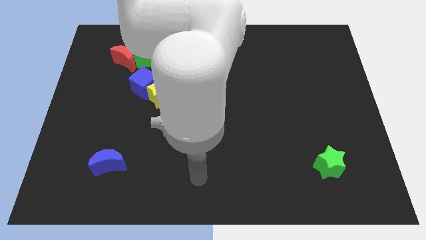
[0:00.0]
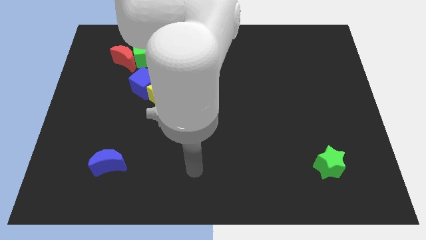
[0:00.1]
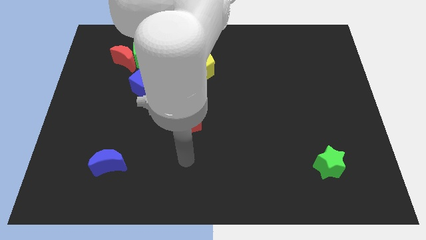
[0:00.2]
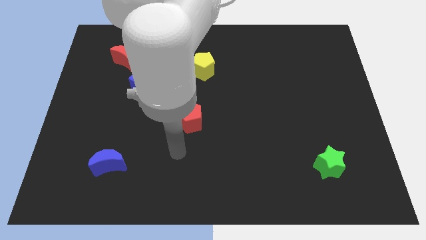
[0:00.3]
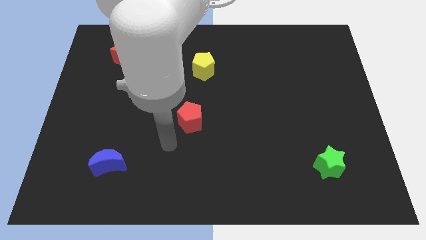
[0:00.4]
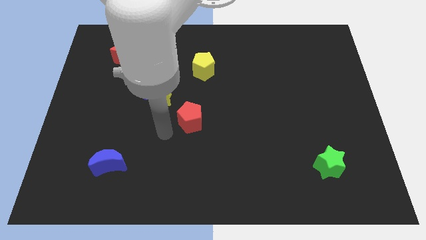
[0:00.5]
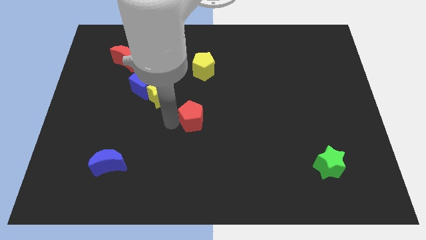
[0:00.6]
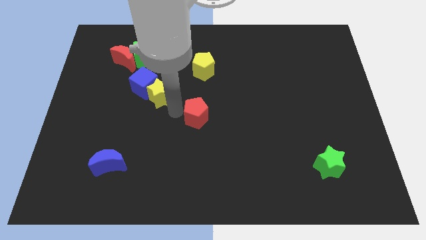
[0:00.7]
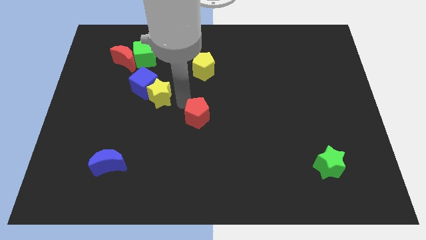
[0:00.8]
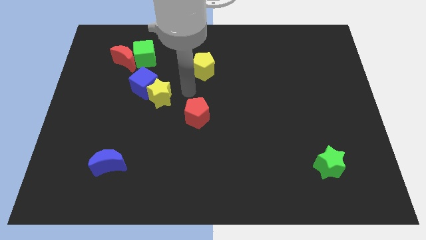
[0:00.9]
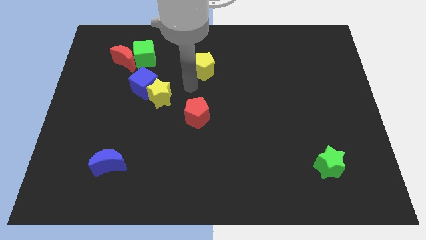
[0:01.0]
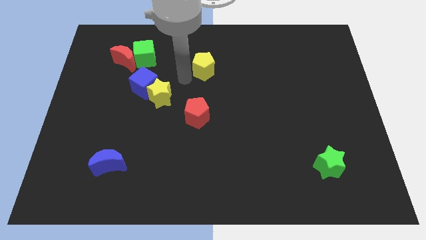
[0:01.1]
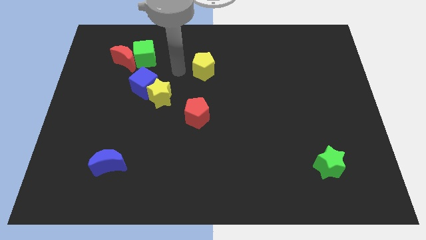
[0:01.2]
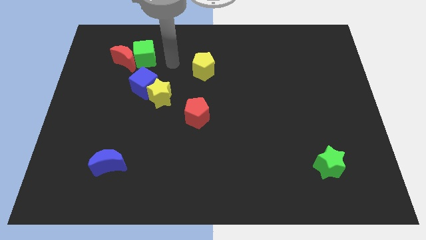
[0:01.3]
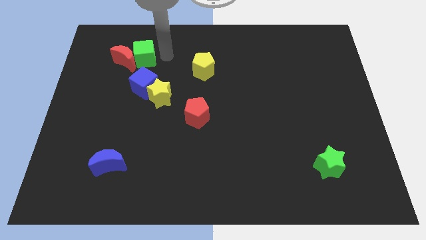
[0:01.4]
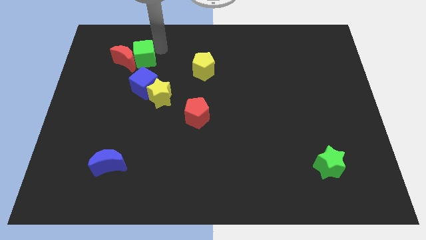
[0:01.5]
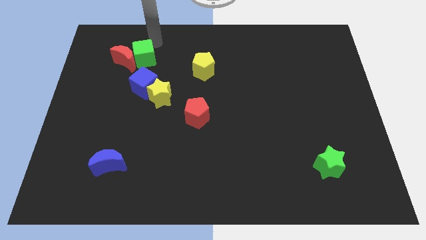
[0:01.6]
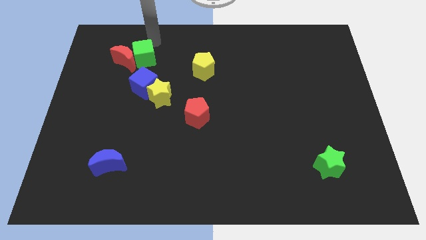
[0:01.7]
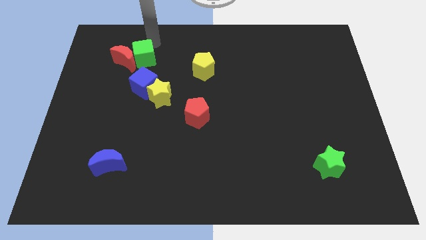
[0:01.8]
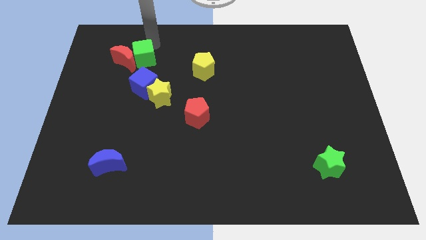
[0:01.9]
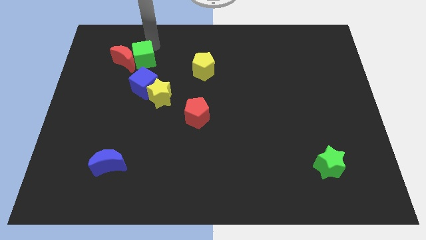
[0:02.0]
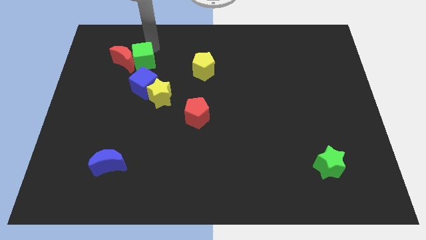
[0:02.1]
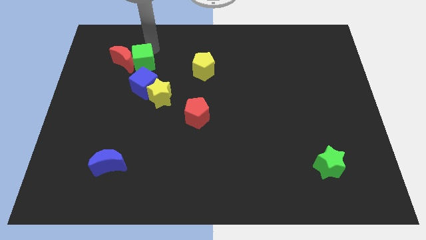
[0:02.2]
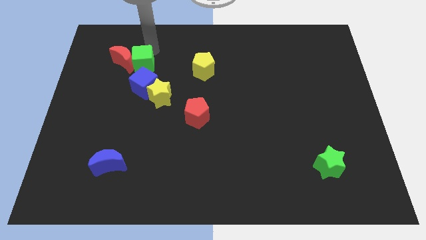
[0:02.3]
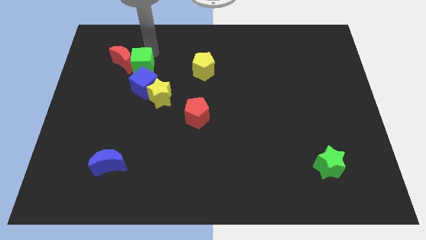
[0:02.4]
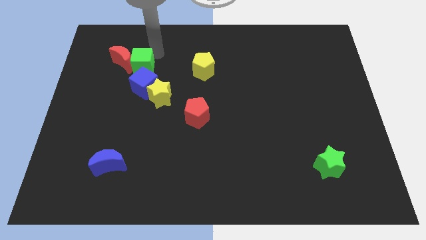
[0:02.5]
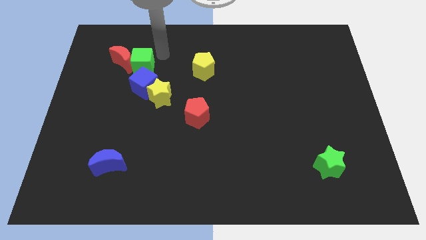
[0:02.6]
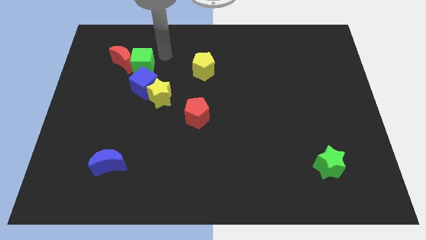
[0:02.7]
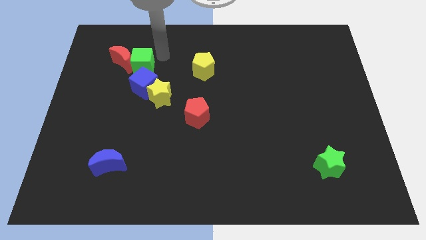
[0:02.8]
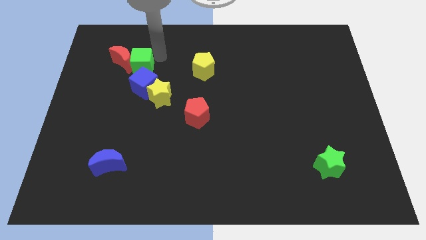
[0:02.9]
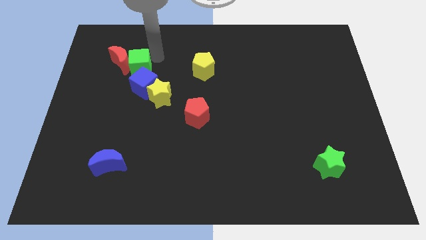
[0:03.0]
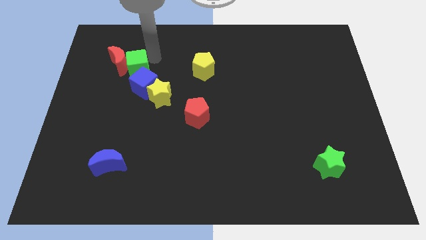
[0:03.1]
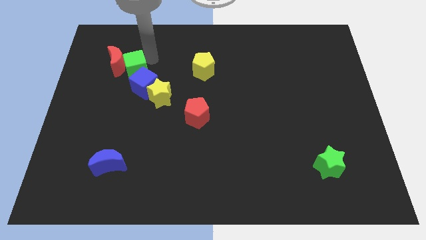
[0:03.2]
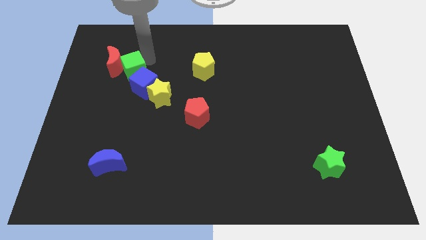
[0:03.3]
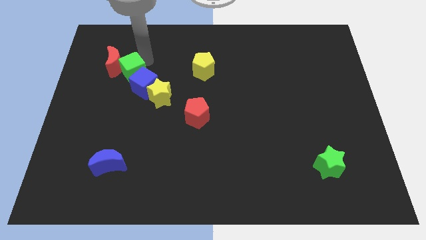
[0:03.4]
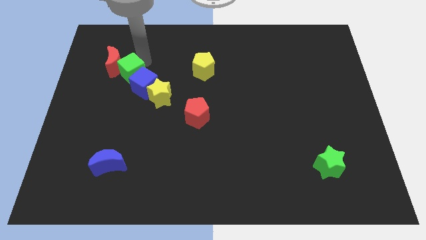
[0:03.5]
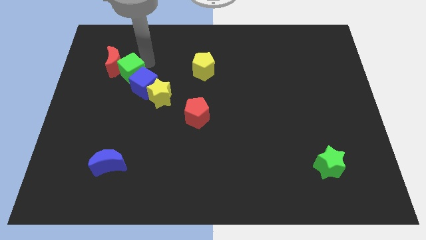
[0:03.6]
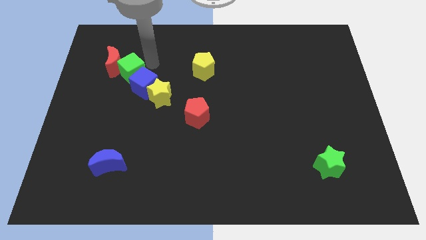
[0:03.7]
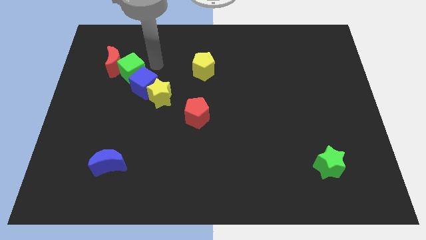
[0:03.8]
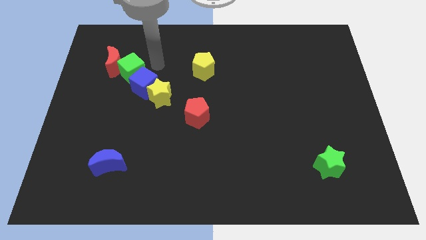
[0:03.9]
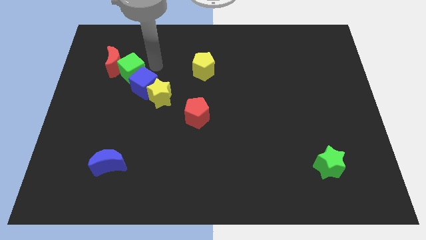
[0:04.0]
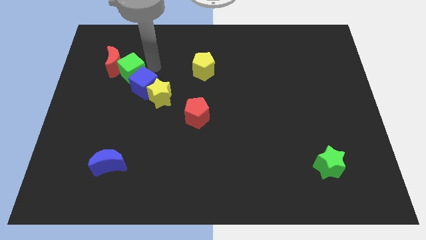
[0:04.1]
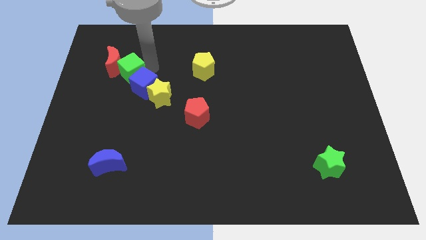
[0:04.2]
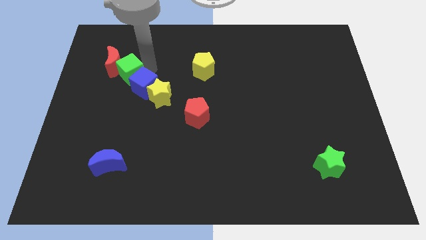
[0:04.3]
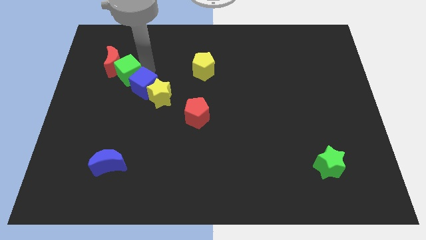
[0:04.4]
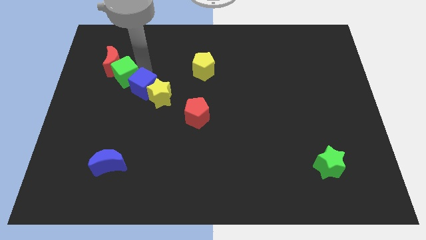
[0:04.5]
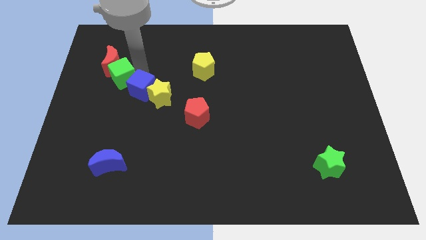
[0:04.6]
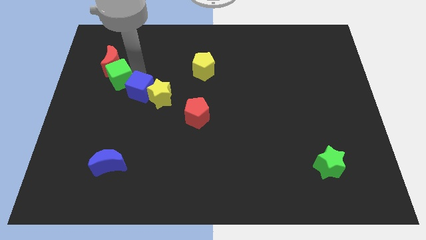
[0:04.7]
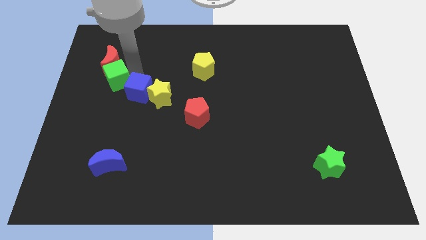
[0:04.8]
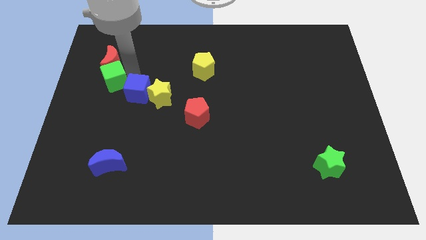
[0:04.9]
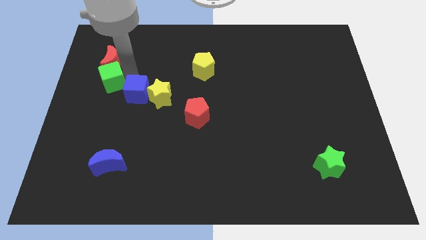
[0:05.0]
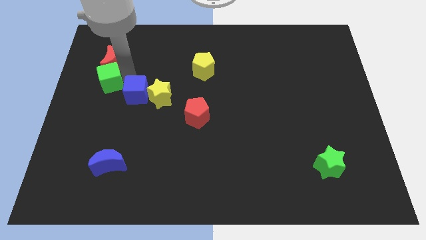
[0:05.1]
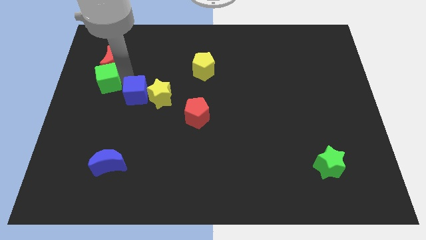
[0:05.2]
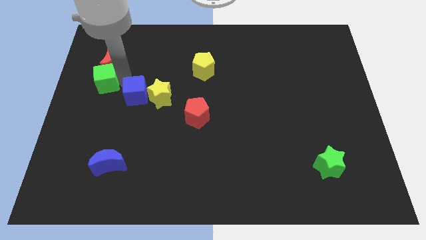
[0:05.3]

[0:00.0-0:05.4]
put the green cube to the center left

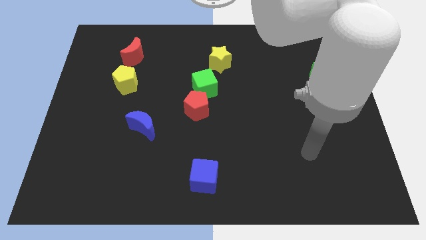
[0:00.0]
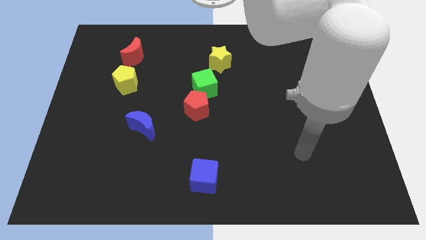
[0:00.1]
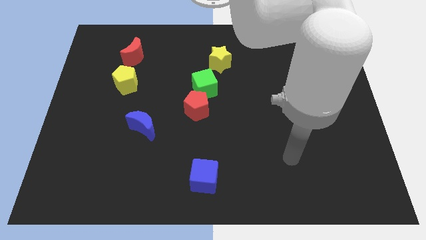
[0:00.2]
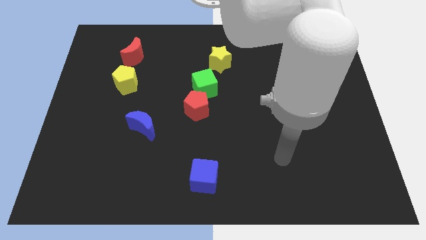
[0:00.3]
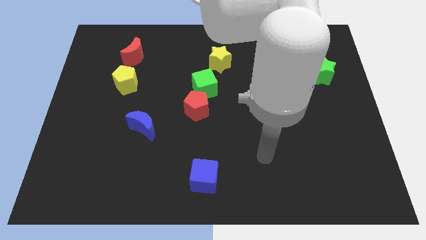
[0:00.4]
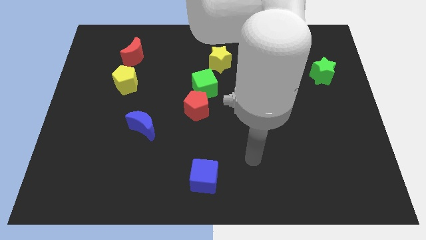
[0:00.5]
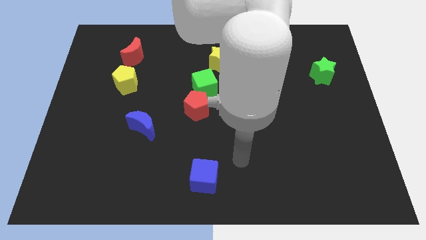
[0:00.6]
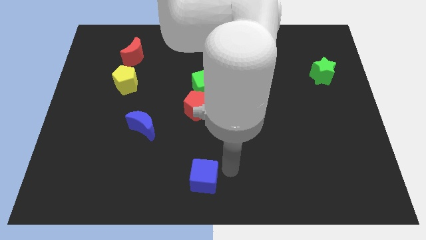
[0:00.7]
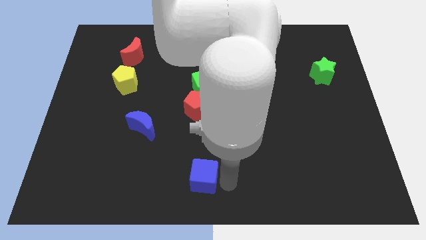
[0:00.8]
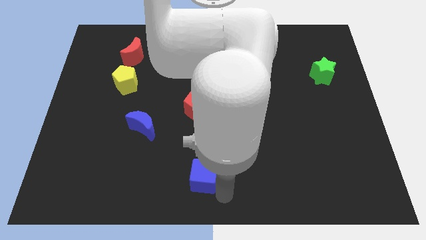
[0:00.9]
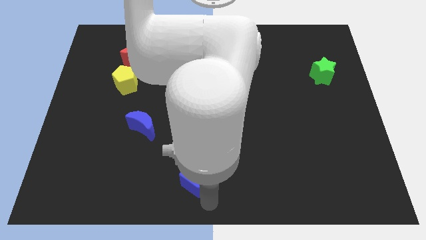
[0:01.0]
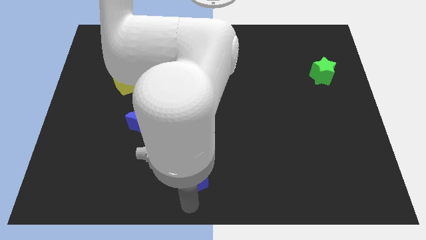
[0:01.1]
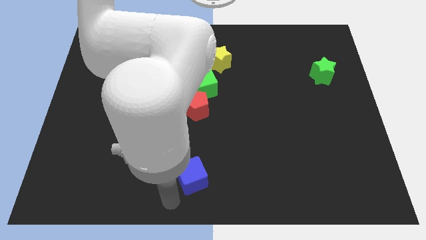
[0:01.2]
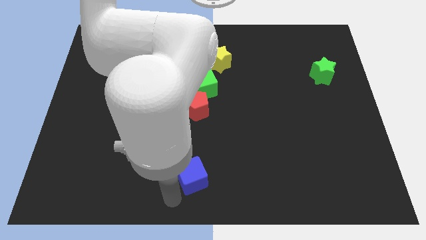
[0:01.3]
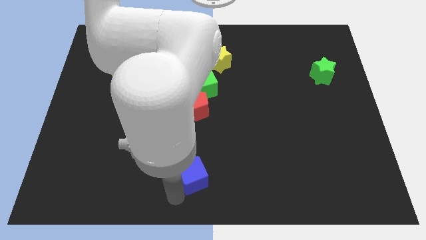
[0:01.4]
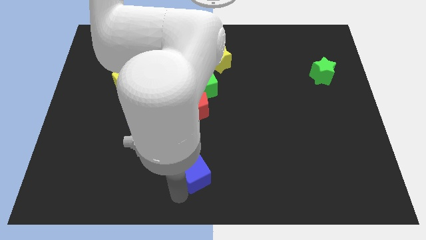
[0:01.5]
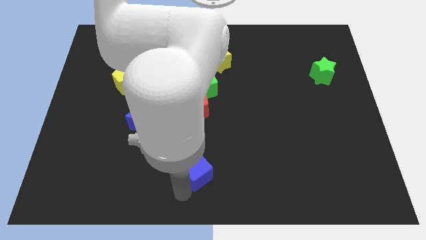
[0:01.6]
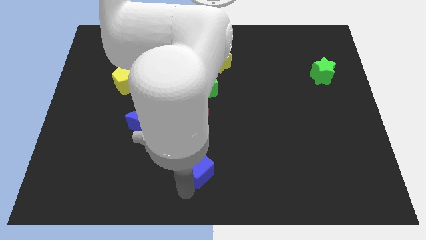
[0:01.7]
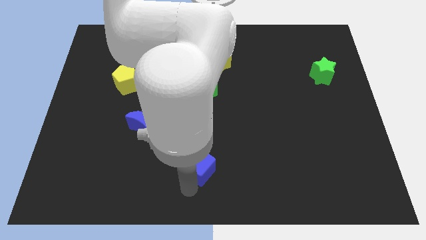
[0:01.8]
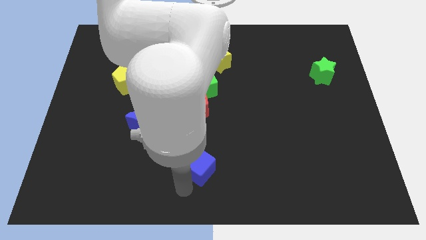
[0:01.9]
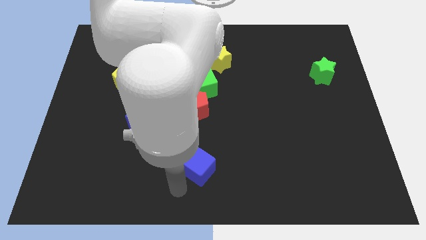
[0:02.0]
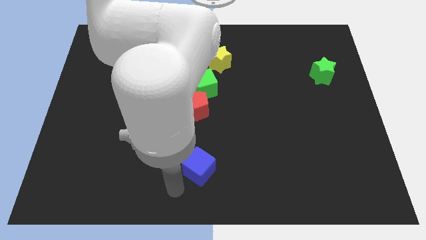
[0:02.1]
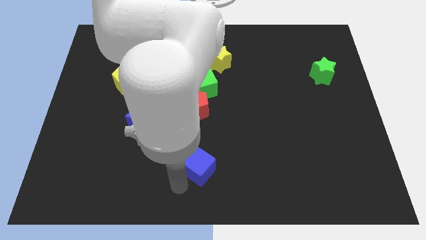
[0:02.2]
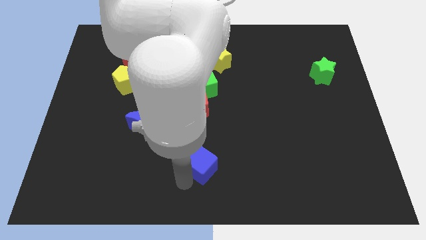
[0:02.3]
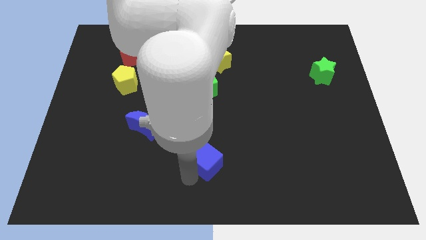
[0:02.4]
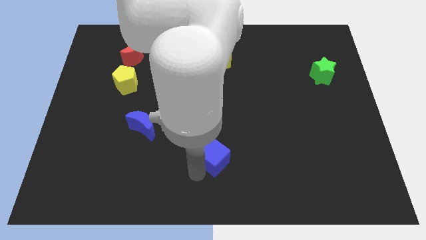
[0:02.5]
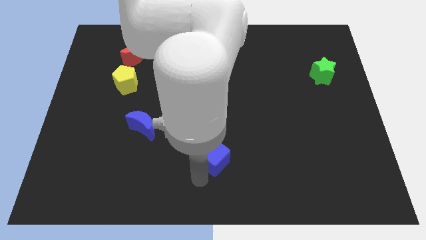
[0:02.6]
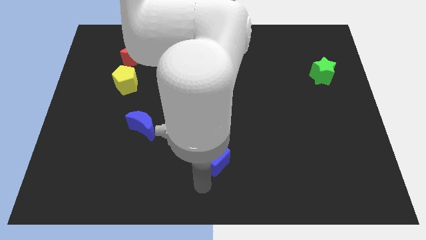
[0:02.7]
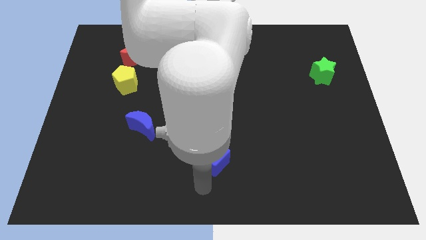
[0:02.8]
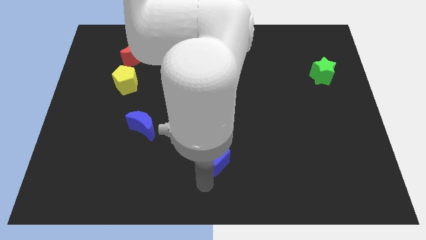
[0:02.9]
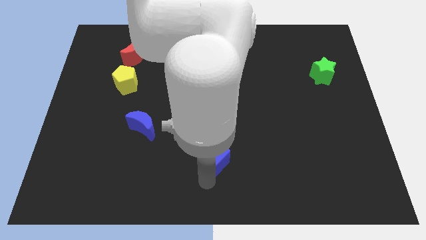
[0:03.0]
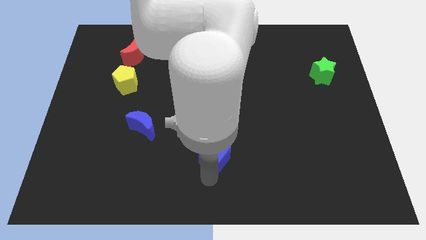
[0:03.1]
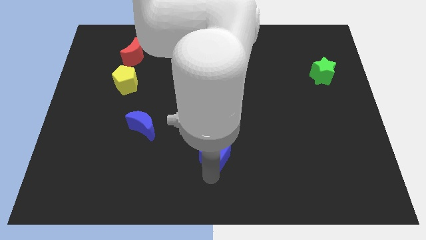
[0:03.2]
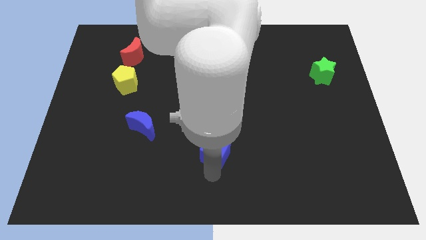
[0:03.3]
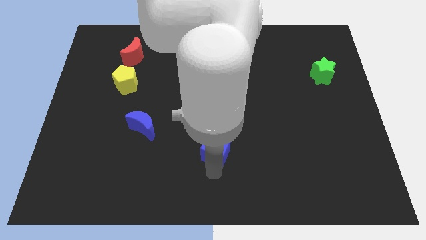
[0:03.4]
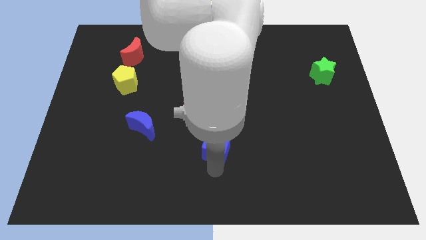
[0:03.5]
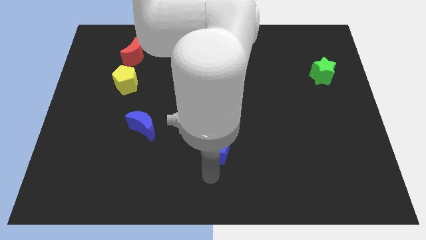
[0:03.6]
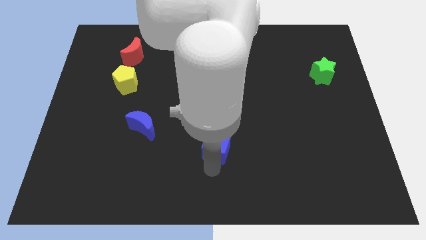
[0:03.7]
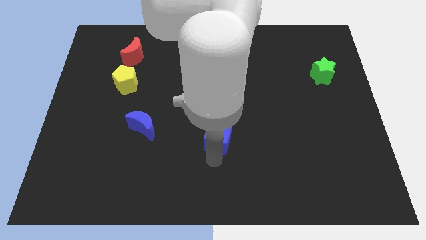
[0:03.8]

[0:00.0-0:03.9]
put the blue cube to the center
